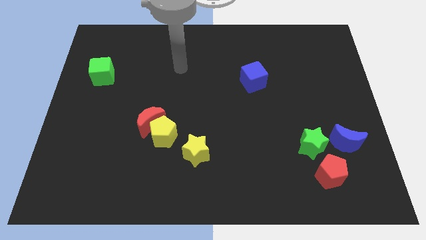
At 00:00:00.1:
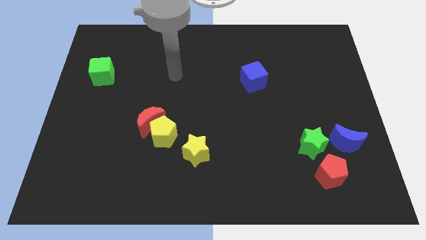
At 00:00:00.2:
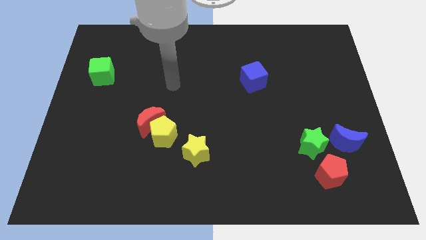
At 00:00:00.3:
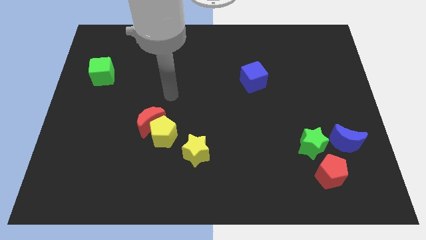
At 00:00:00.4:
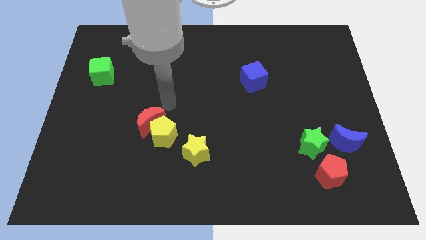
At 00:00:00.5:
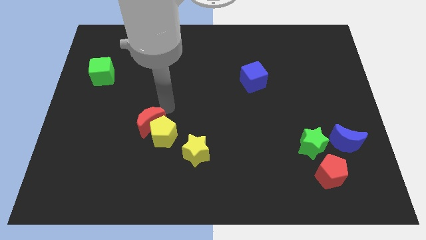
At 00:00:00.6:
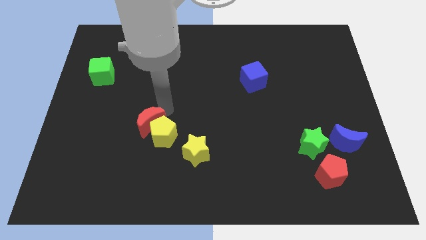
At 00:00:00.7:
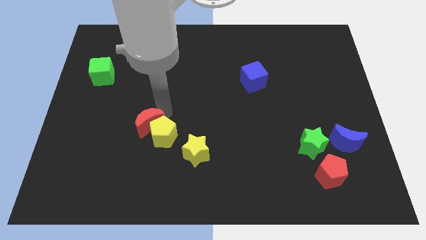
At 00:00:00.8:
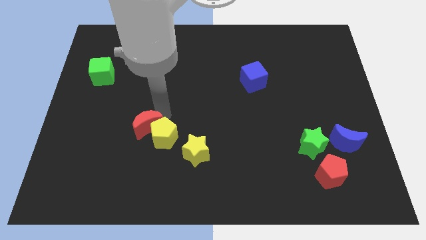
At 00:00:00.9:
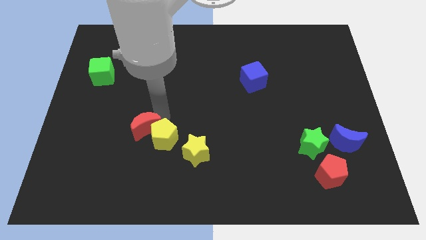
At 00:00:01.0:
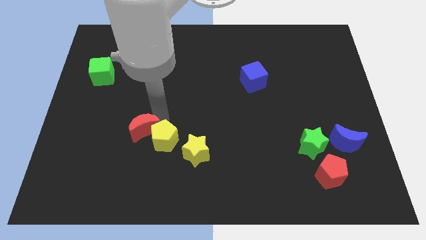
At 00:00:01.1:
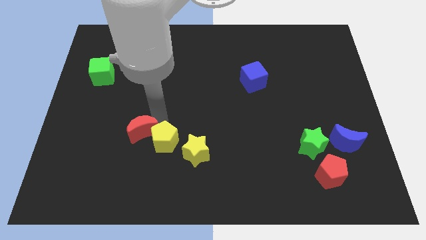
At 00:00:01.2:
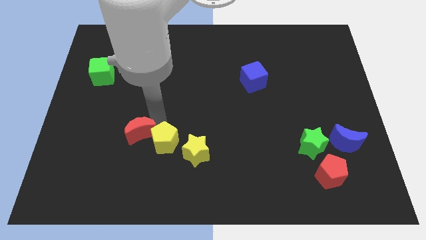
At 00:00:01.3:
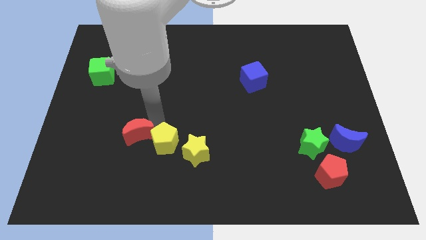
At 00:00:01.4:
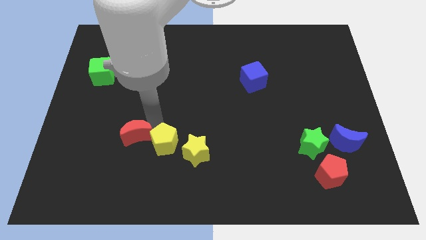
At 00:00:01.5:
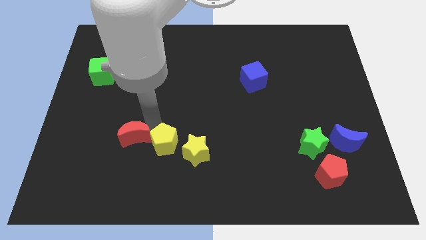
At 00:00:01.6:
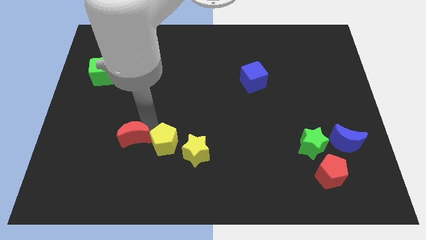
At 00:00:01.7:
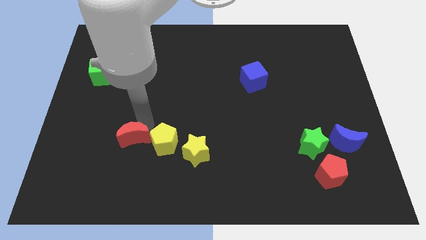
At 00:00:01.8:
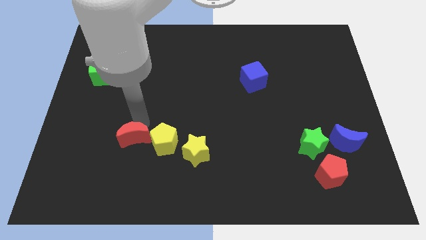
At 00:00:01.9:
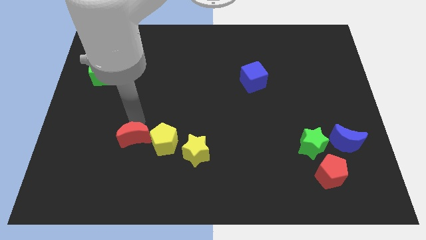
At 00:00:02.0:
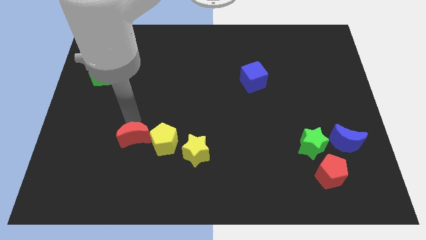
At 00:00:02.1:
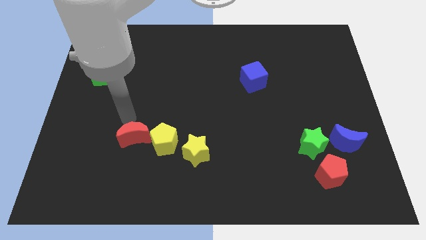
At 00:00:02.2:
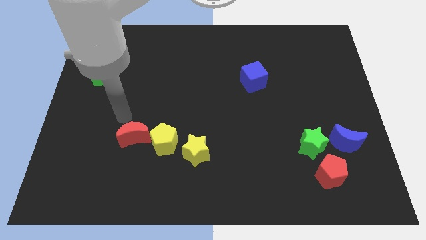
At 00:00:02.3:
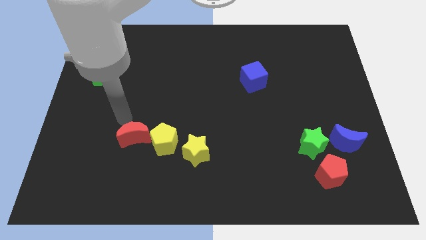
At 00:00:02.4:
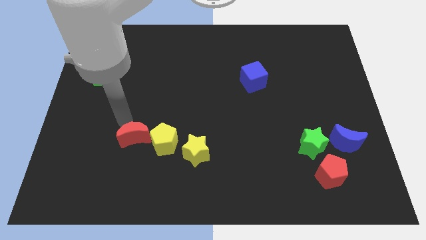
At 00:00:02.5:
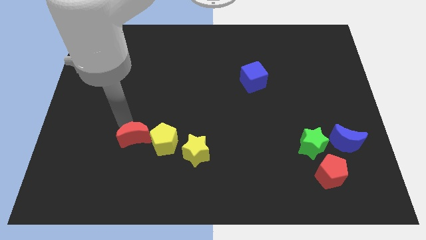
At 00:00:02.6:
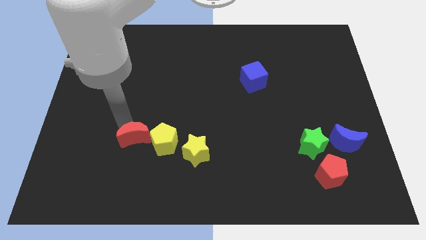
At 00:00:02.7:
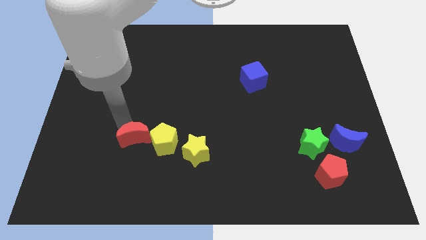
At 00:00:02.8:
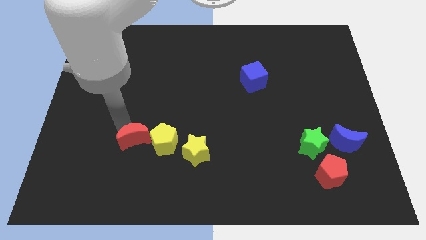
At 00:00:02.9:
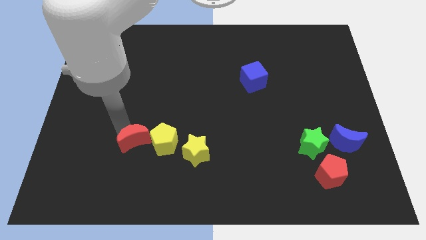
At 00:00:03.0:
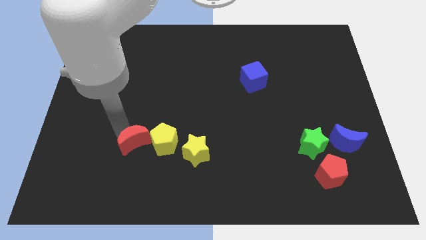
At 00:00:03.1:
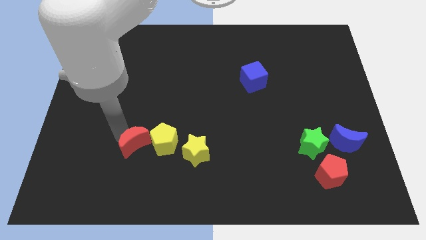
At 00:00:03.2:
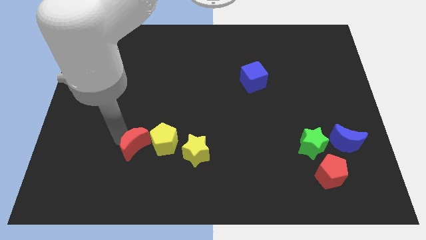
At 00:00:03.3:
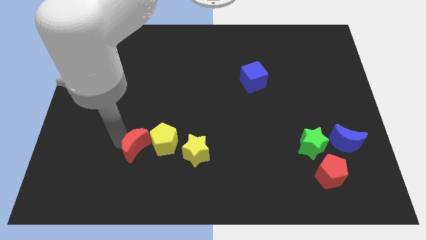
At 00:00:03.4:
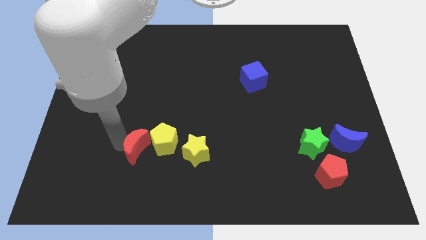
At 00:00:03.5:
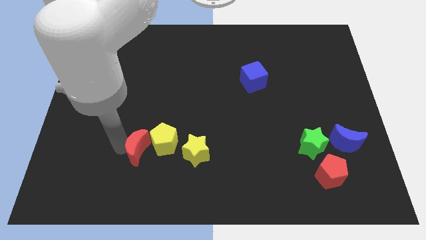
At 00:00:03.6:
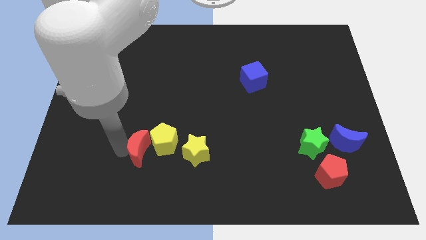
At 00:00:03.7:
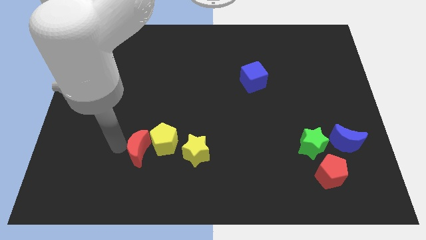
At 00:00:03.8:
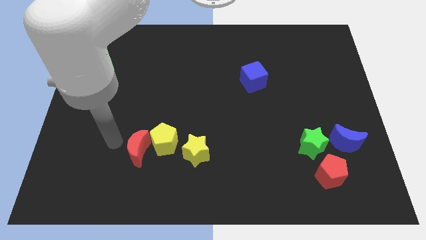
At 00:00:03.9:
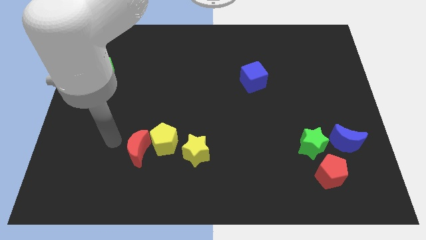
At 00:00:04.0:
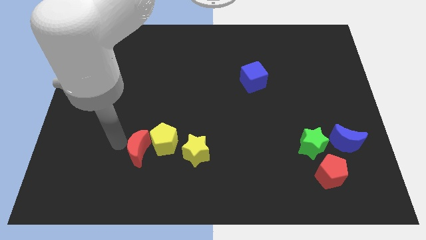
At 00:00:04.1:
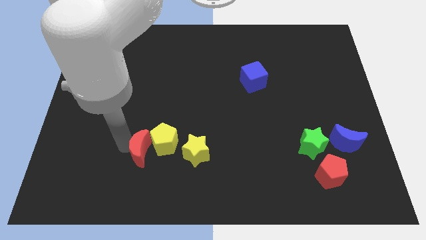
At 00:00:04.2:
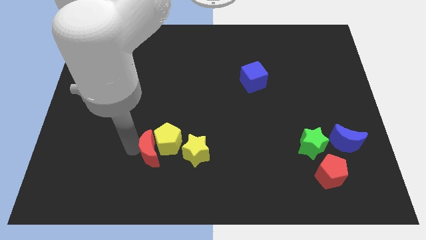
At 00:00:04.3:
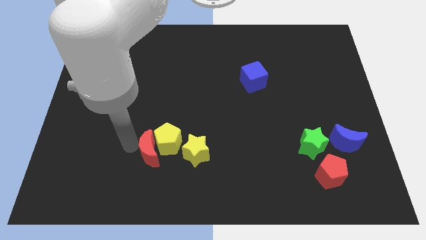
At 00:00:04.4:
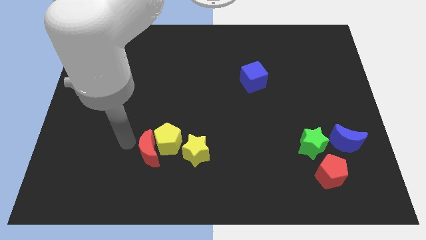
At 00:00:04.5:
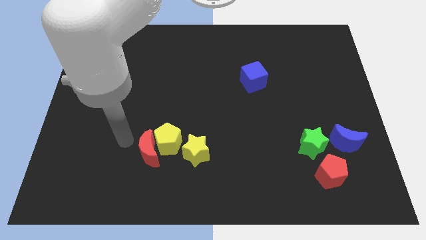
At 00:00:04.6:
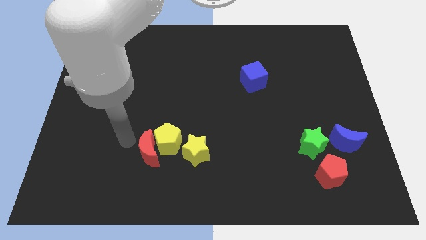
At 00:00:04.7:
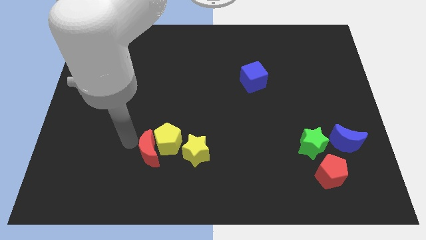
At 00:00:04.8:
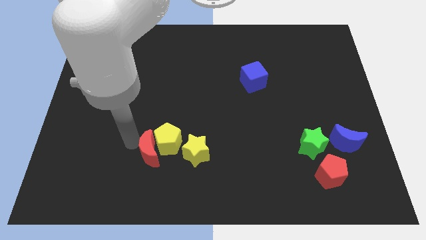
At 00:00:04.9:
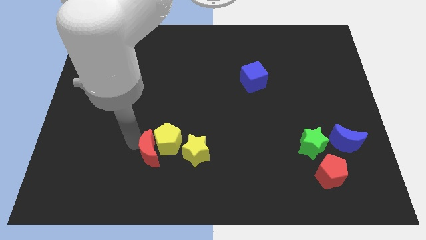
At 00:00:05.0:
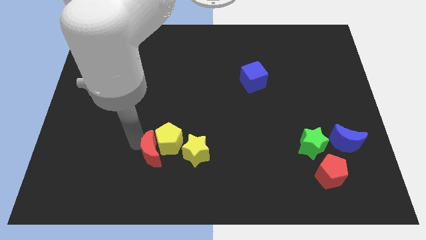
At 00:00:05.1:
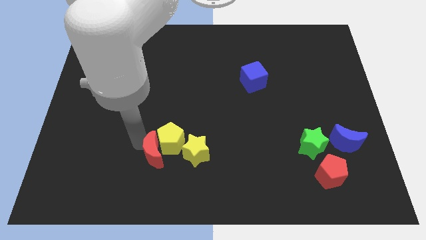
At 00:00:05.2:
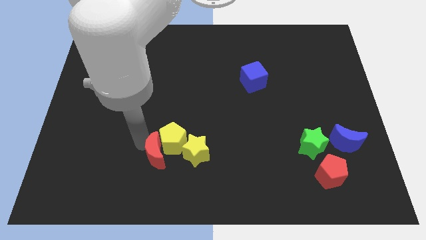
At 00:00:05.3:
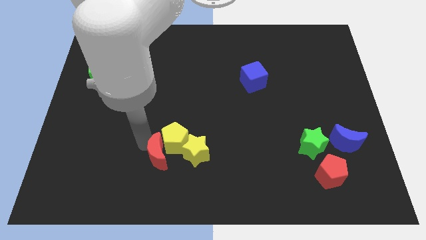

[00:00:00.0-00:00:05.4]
push the red moon diagonally down and right a little

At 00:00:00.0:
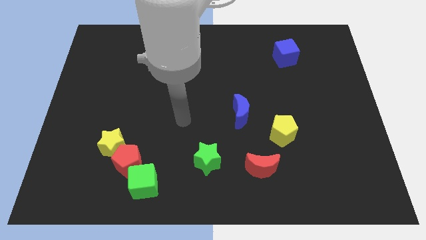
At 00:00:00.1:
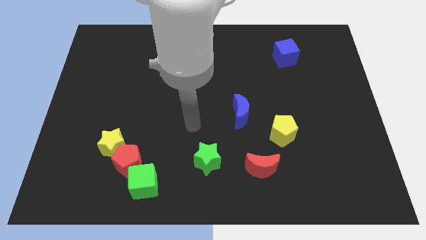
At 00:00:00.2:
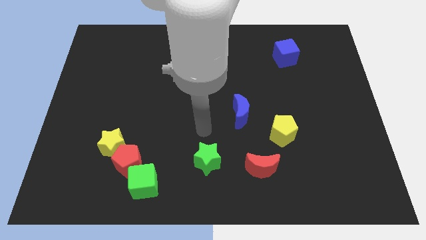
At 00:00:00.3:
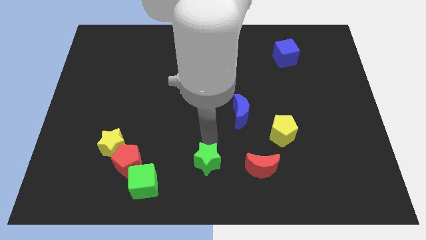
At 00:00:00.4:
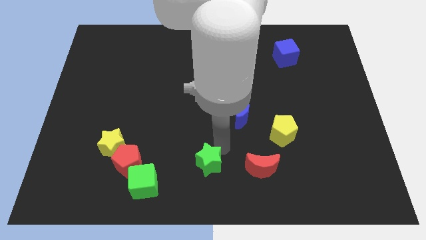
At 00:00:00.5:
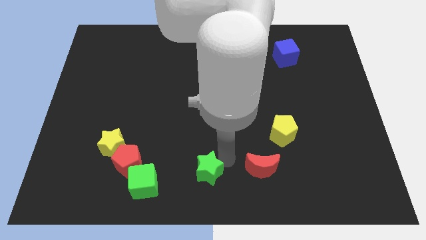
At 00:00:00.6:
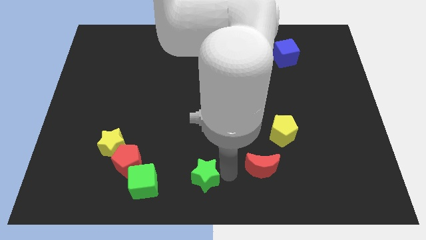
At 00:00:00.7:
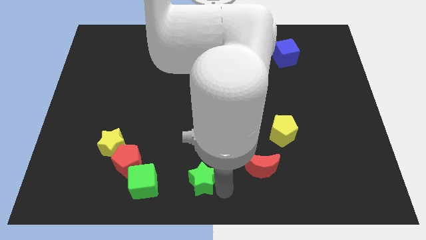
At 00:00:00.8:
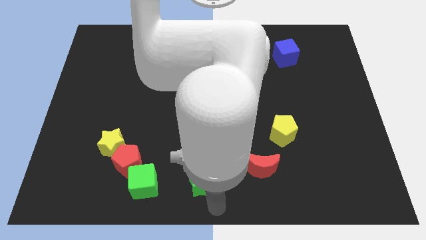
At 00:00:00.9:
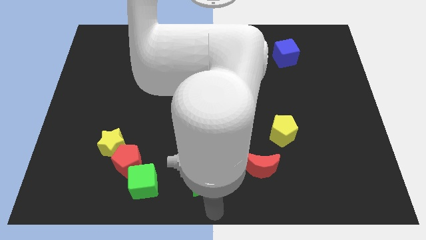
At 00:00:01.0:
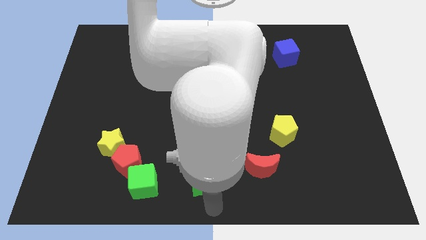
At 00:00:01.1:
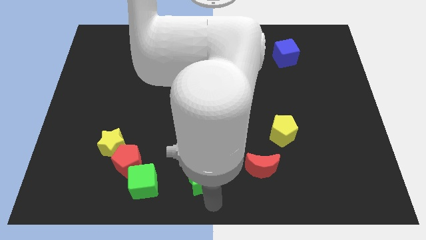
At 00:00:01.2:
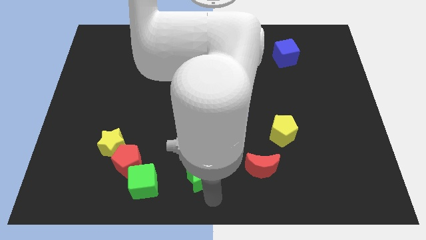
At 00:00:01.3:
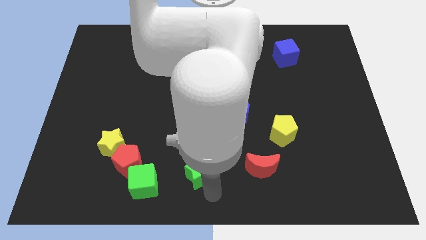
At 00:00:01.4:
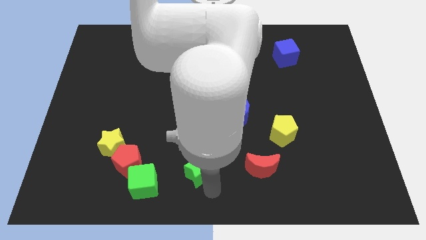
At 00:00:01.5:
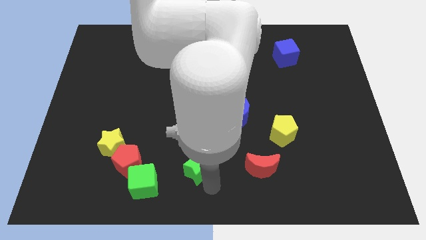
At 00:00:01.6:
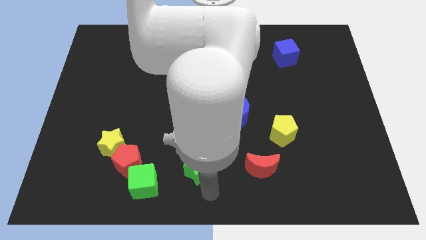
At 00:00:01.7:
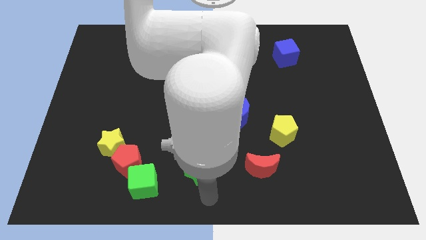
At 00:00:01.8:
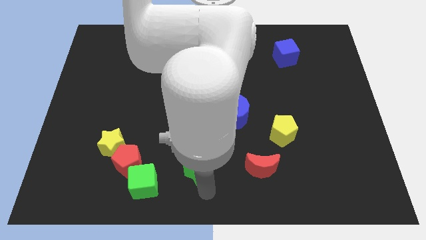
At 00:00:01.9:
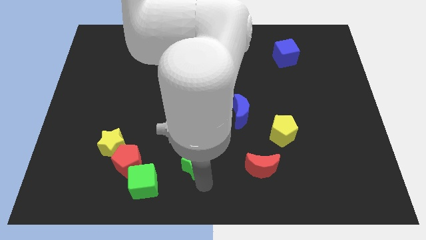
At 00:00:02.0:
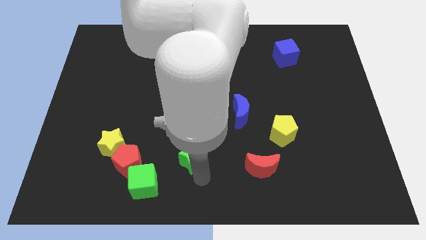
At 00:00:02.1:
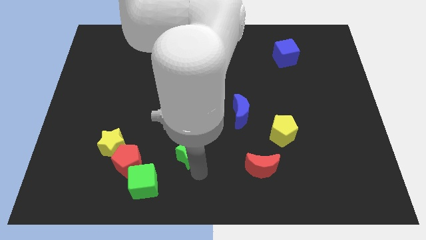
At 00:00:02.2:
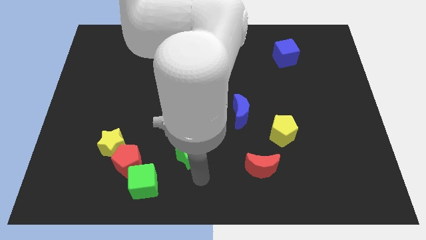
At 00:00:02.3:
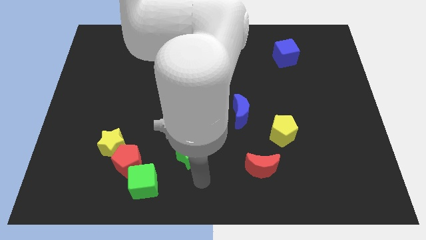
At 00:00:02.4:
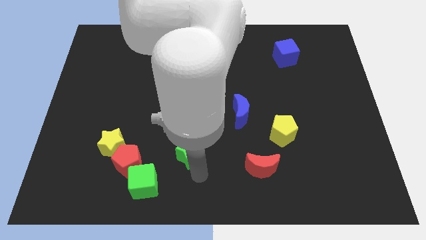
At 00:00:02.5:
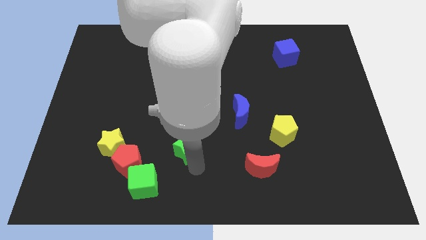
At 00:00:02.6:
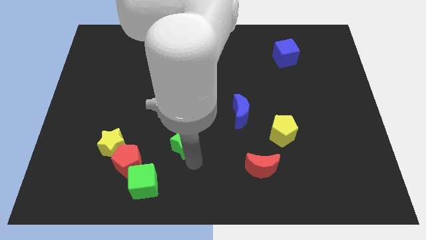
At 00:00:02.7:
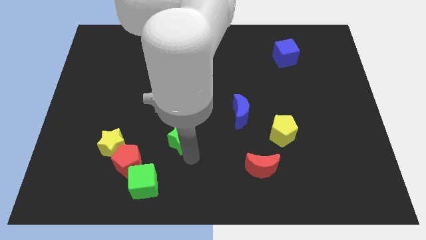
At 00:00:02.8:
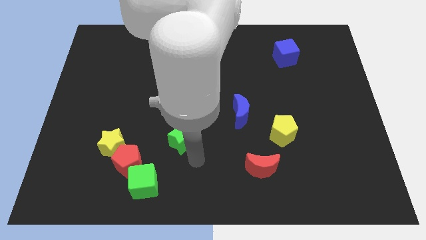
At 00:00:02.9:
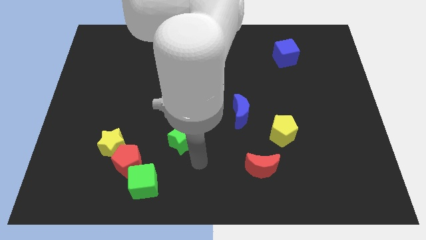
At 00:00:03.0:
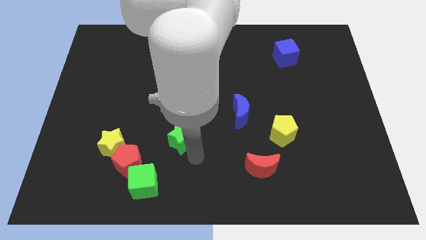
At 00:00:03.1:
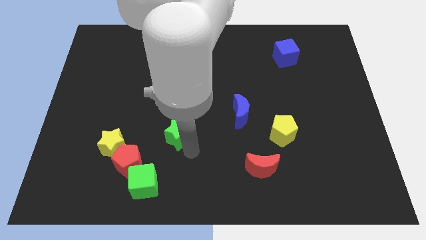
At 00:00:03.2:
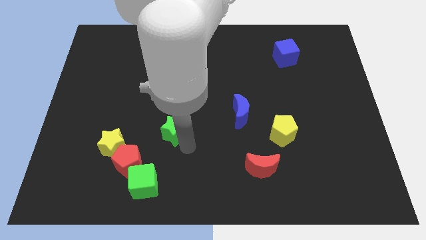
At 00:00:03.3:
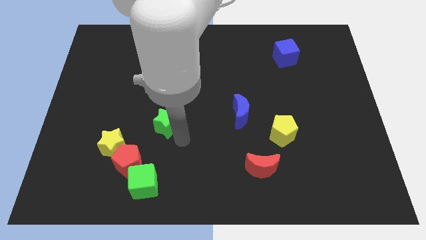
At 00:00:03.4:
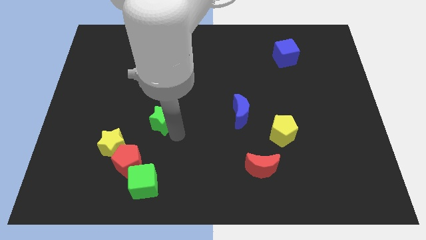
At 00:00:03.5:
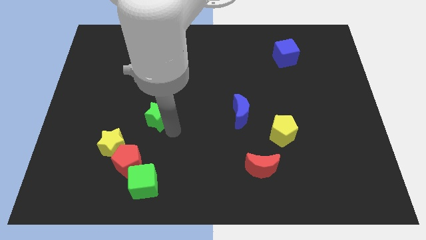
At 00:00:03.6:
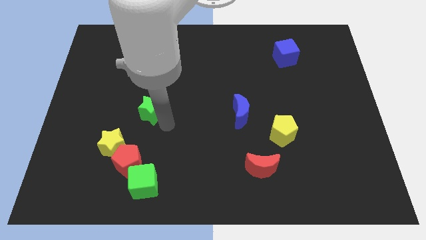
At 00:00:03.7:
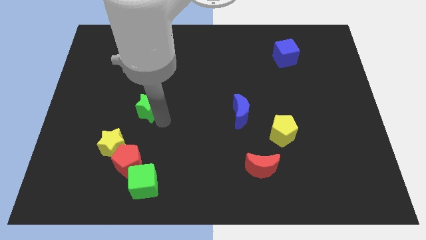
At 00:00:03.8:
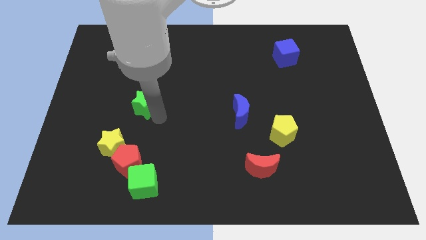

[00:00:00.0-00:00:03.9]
slide the green star upwards and then to the left
